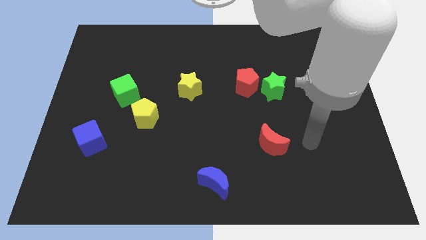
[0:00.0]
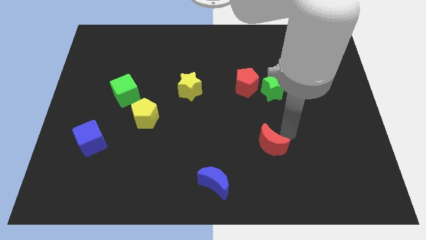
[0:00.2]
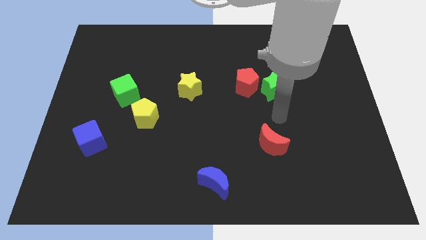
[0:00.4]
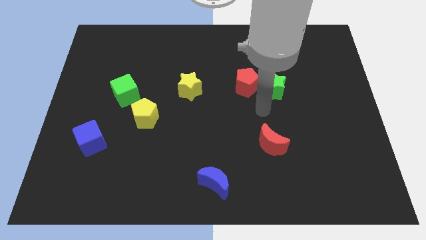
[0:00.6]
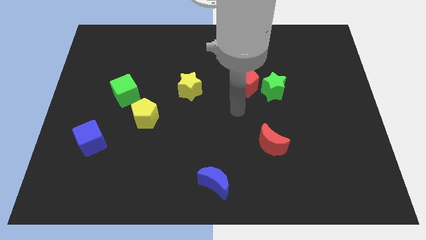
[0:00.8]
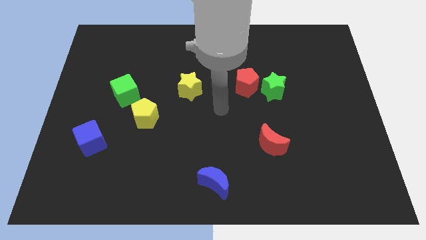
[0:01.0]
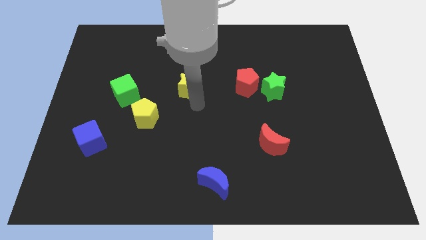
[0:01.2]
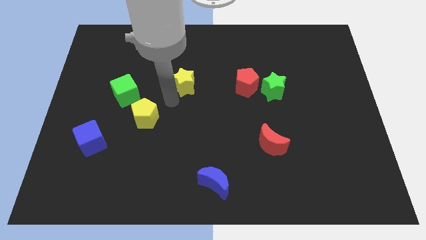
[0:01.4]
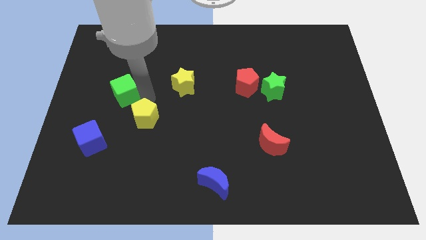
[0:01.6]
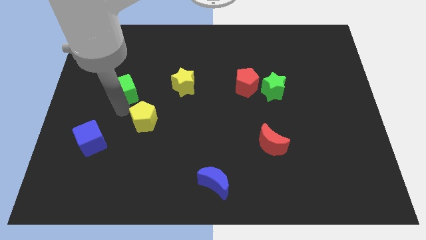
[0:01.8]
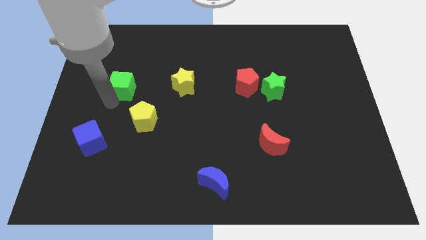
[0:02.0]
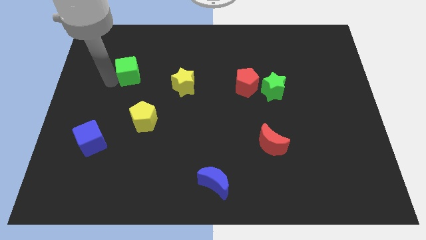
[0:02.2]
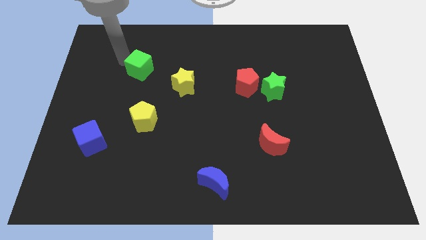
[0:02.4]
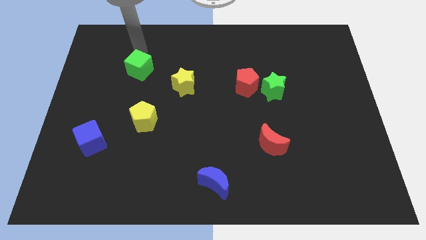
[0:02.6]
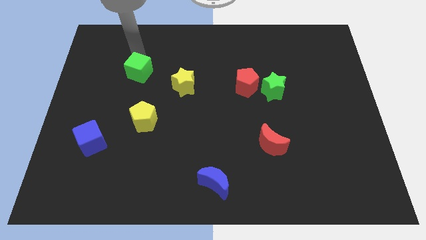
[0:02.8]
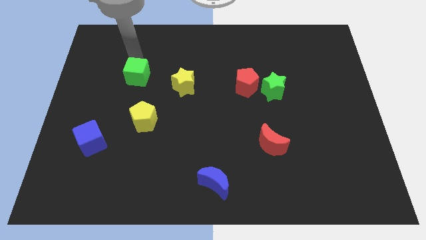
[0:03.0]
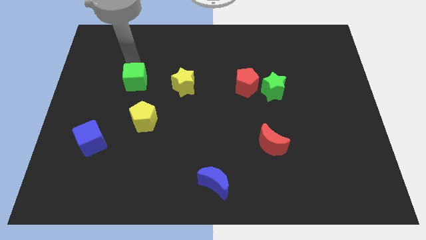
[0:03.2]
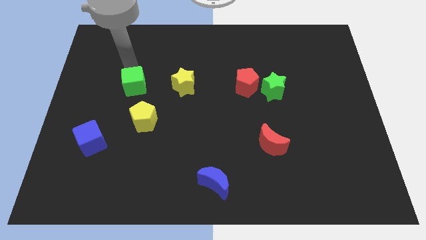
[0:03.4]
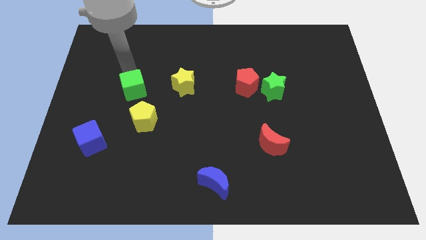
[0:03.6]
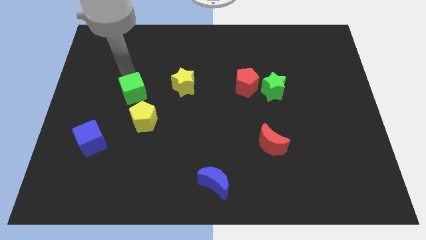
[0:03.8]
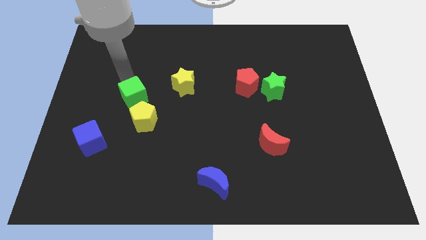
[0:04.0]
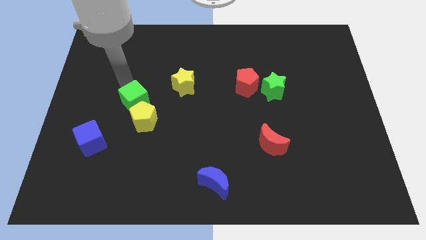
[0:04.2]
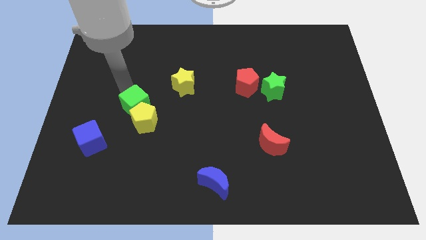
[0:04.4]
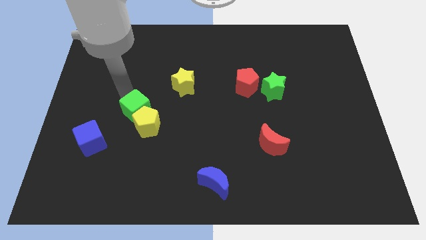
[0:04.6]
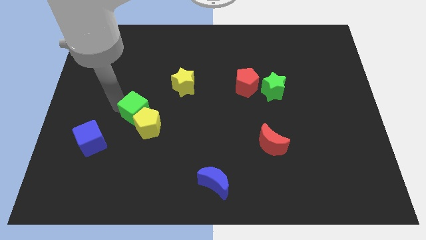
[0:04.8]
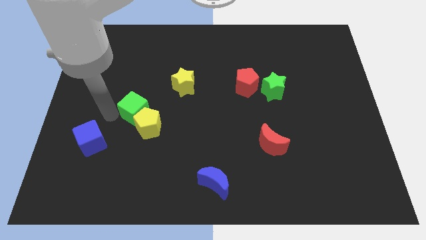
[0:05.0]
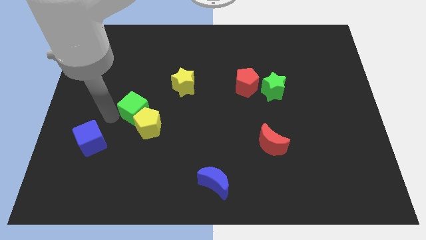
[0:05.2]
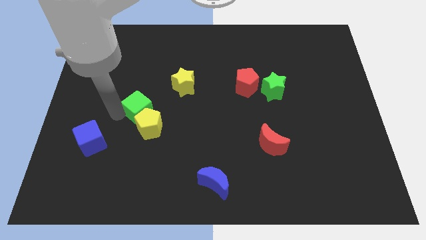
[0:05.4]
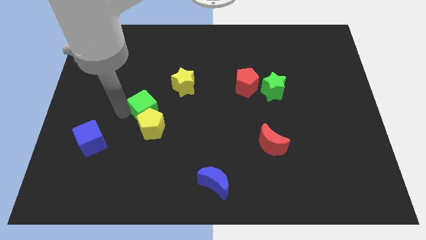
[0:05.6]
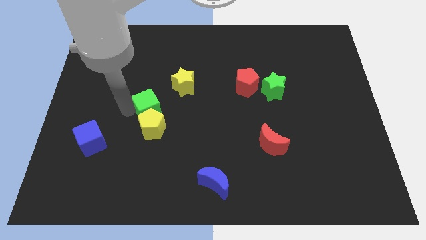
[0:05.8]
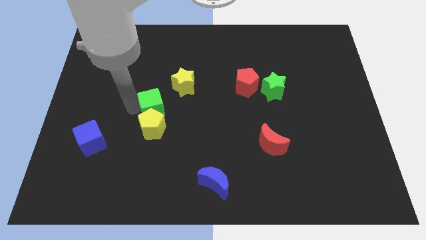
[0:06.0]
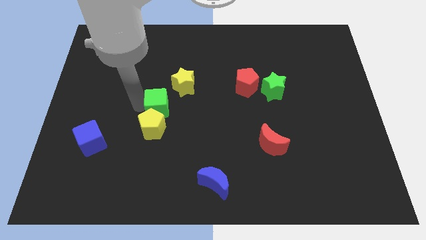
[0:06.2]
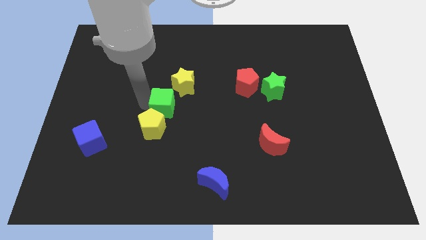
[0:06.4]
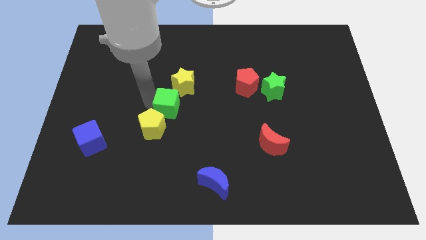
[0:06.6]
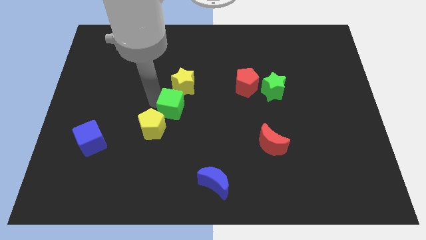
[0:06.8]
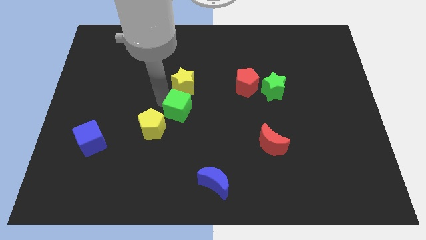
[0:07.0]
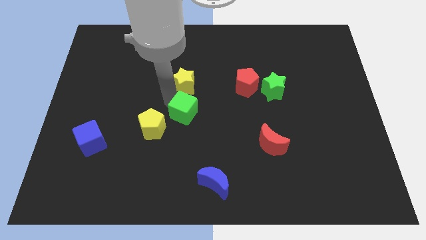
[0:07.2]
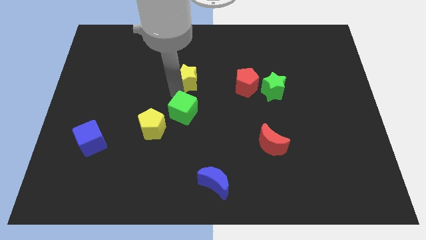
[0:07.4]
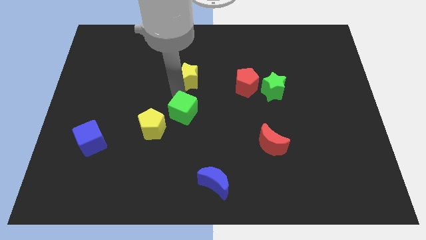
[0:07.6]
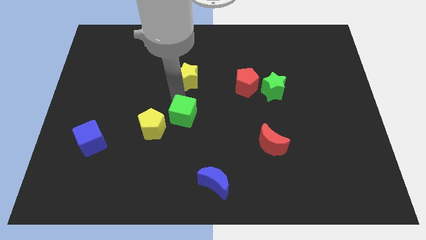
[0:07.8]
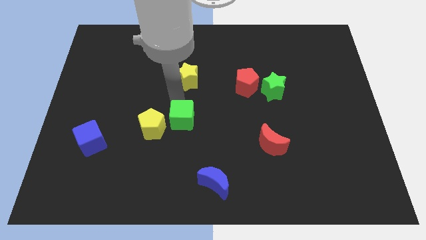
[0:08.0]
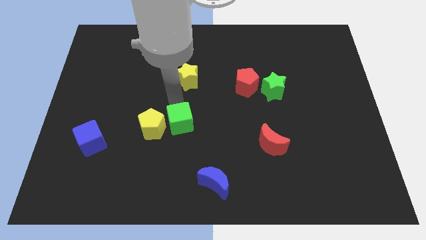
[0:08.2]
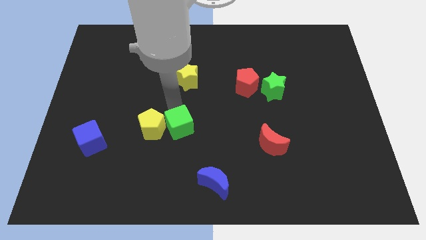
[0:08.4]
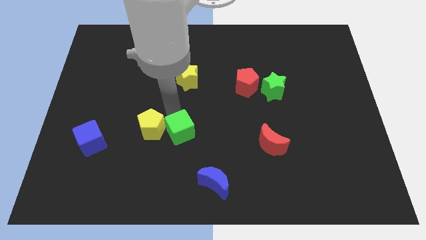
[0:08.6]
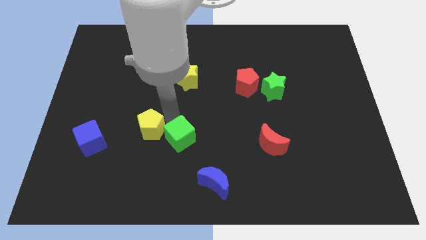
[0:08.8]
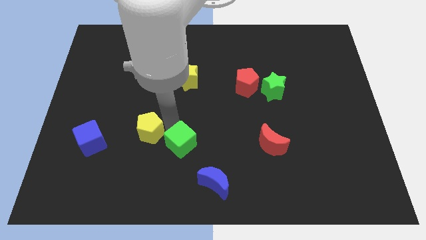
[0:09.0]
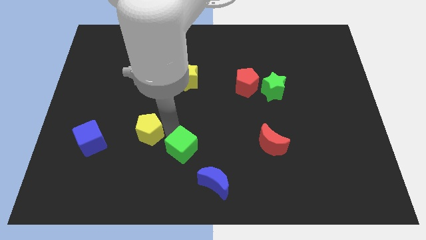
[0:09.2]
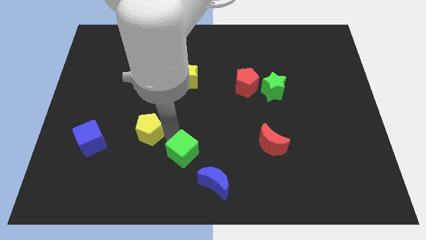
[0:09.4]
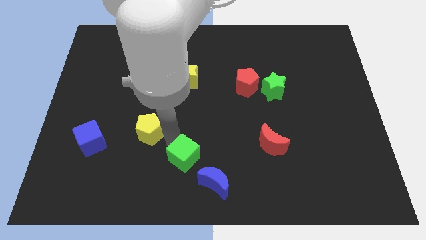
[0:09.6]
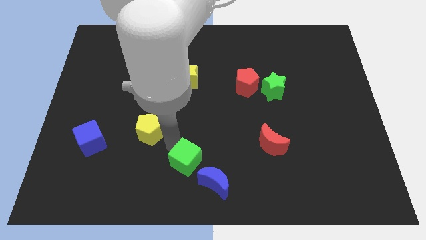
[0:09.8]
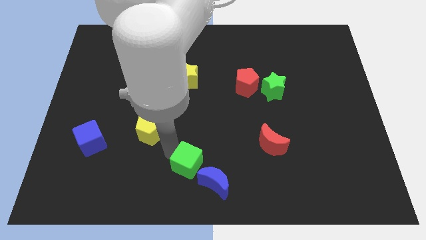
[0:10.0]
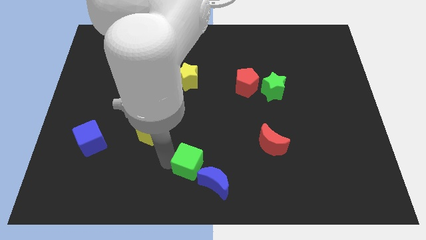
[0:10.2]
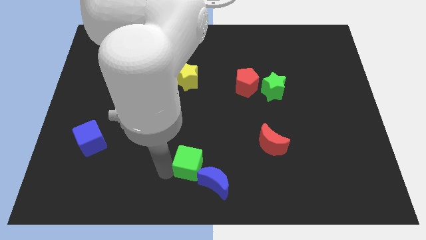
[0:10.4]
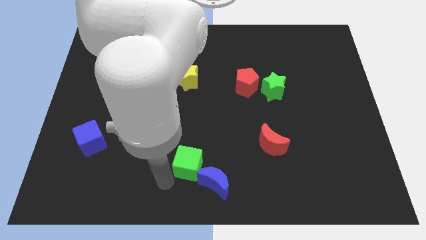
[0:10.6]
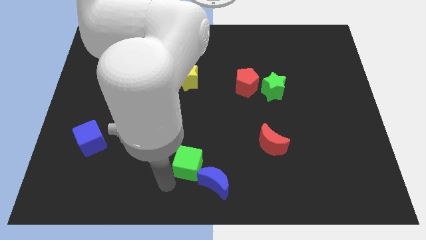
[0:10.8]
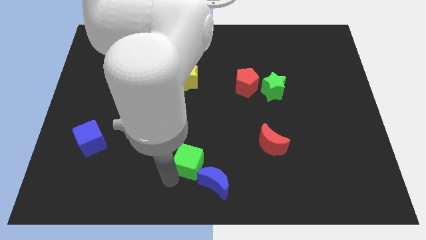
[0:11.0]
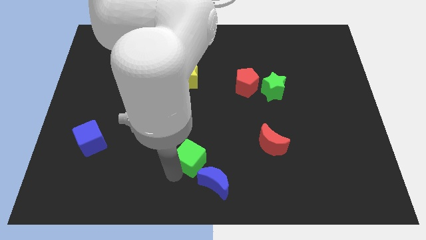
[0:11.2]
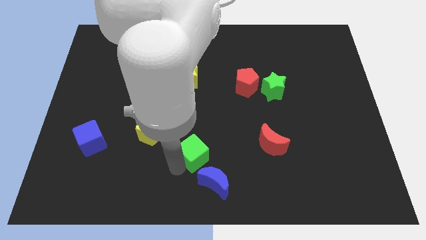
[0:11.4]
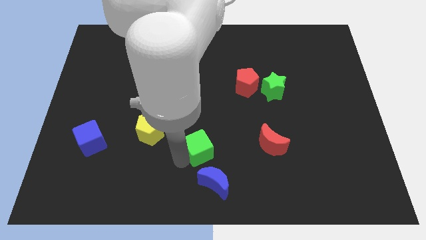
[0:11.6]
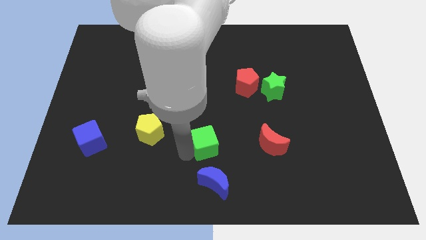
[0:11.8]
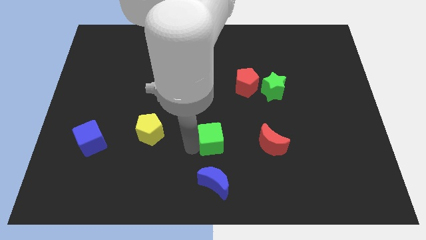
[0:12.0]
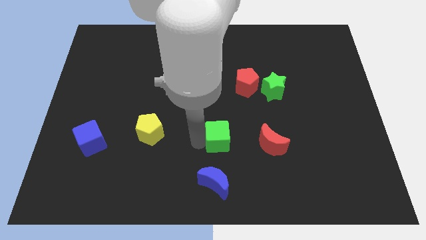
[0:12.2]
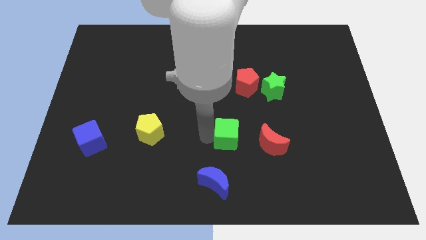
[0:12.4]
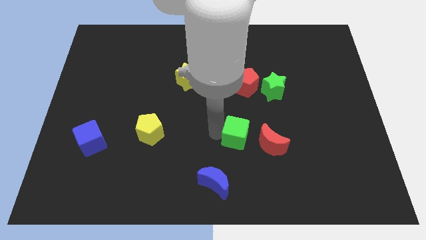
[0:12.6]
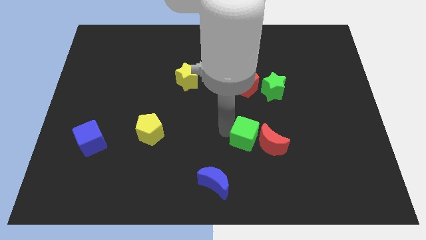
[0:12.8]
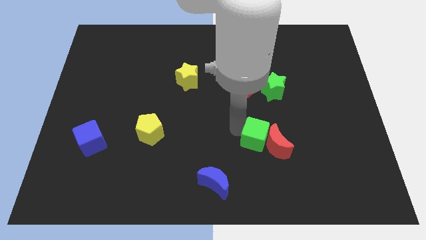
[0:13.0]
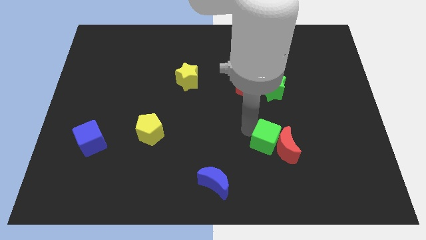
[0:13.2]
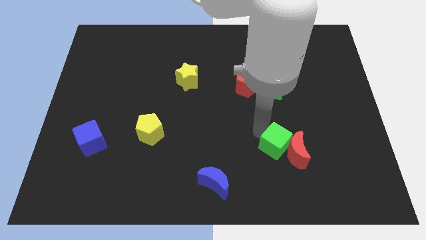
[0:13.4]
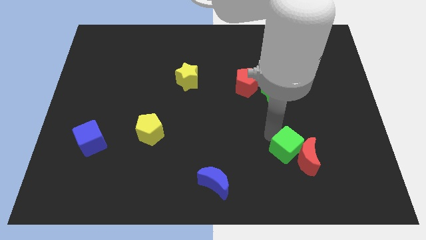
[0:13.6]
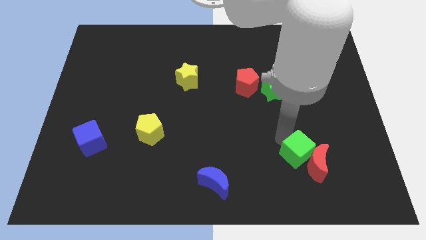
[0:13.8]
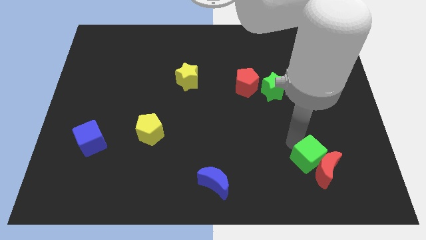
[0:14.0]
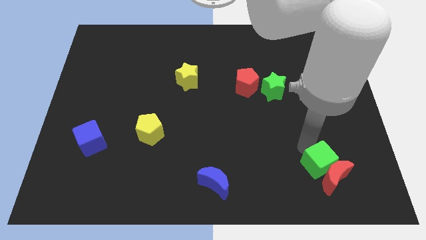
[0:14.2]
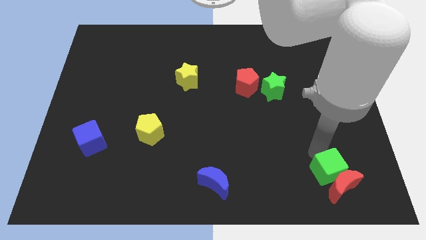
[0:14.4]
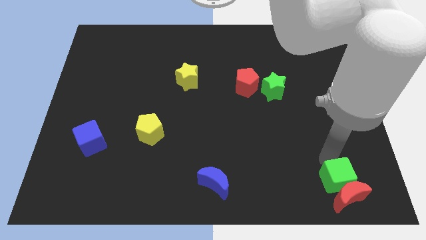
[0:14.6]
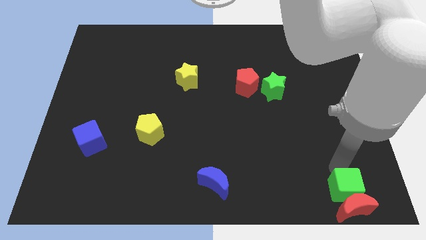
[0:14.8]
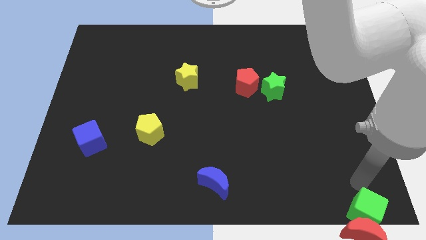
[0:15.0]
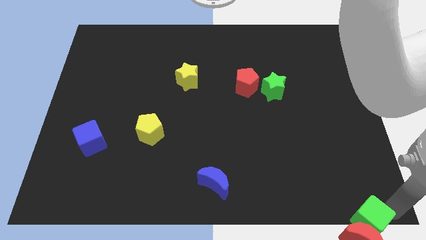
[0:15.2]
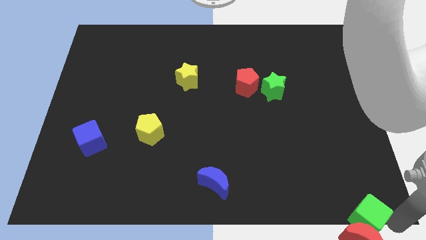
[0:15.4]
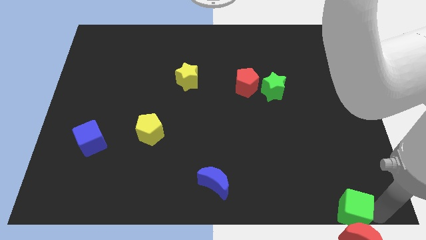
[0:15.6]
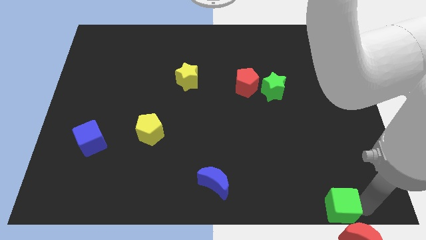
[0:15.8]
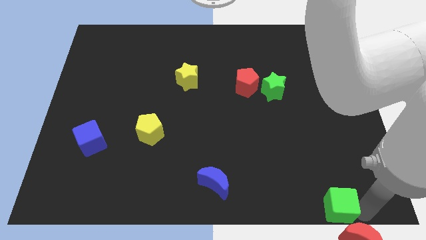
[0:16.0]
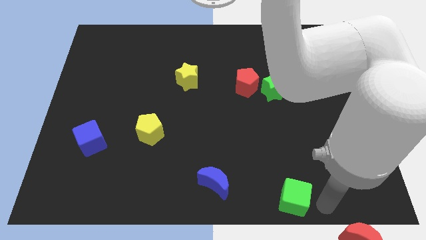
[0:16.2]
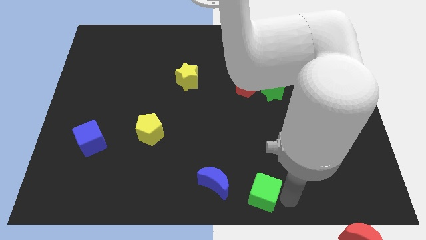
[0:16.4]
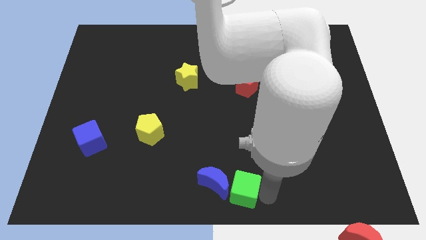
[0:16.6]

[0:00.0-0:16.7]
put the green cube close to the blue moon
